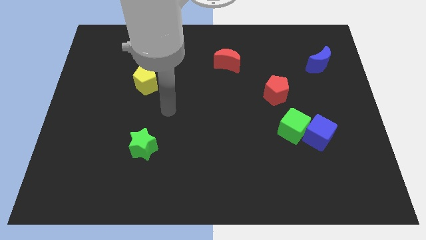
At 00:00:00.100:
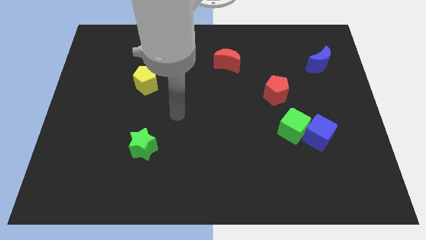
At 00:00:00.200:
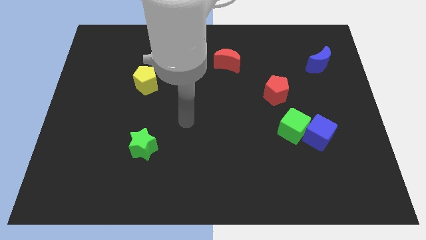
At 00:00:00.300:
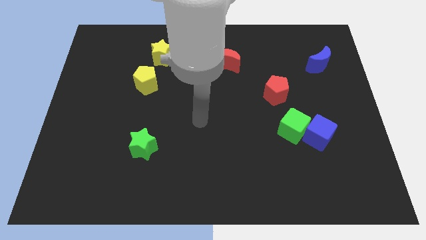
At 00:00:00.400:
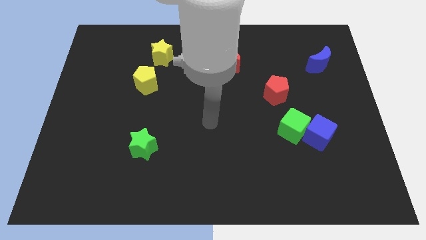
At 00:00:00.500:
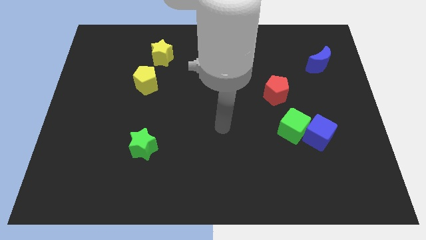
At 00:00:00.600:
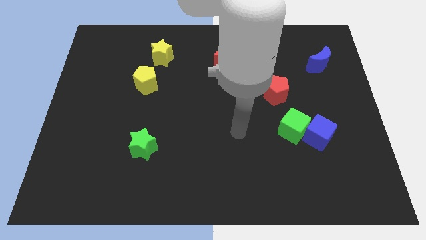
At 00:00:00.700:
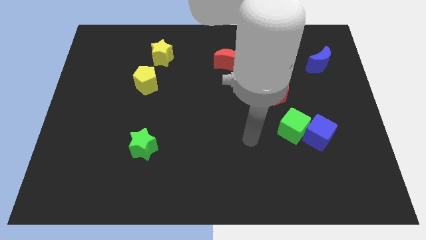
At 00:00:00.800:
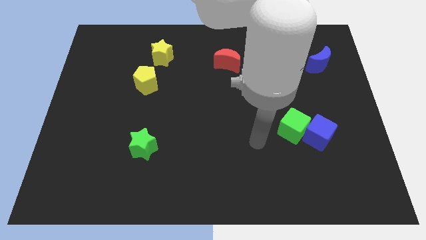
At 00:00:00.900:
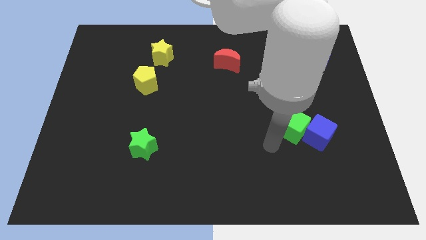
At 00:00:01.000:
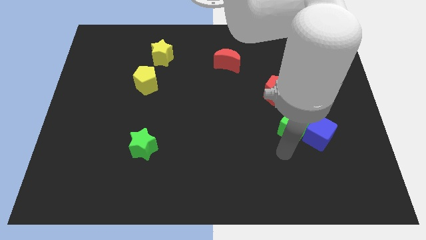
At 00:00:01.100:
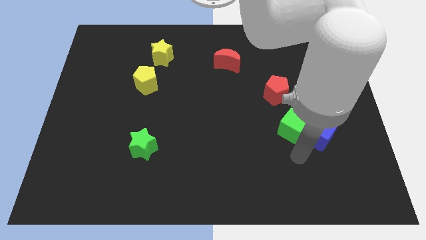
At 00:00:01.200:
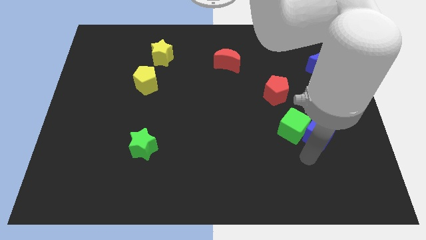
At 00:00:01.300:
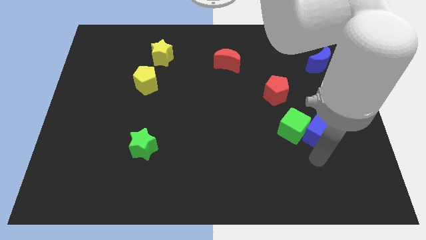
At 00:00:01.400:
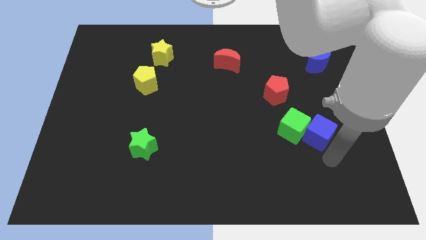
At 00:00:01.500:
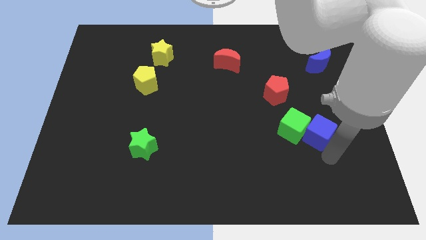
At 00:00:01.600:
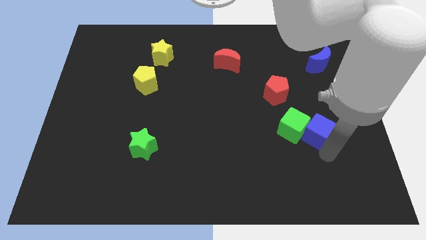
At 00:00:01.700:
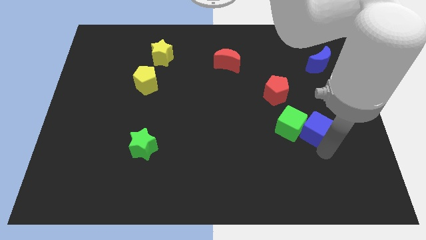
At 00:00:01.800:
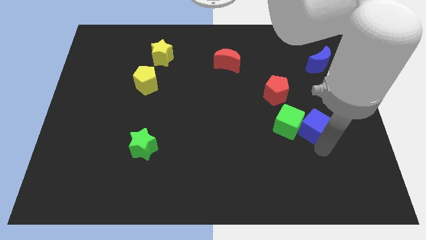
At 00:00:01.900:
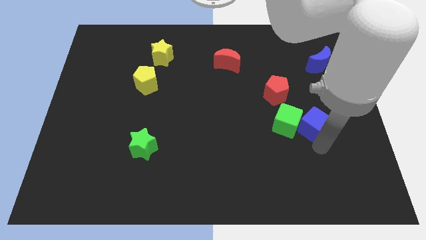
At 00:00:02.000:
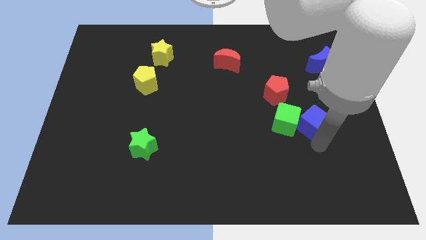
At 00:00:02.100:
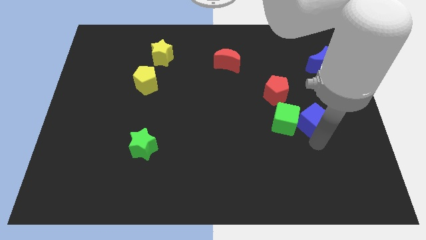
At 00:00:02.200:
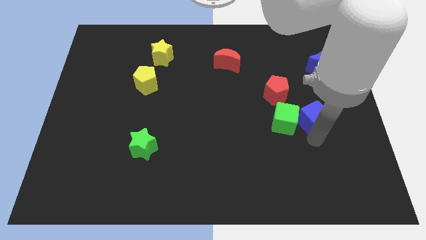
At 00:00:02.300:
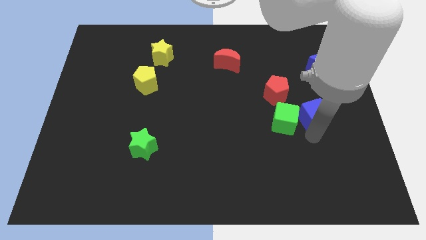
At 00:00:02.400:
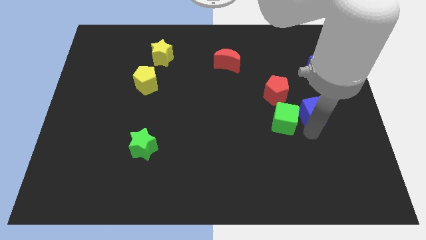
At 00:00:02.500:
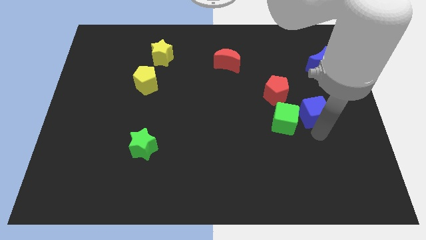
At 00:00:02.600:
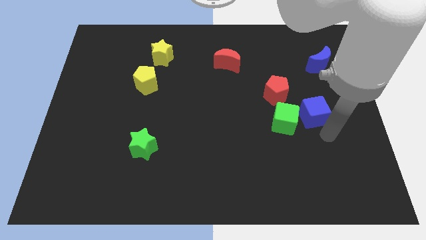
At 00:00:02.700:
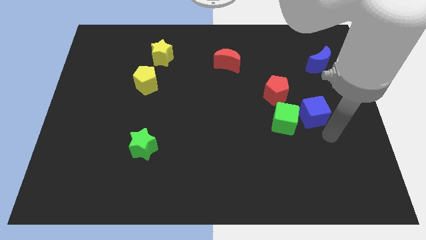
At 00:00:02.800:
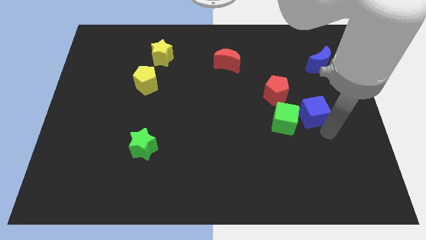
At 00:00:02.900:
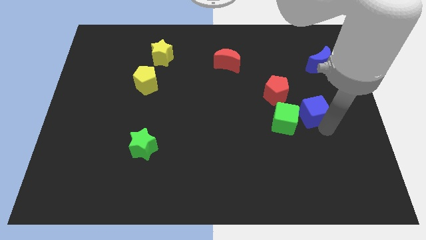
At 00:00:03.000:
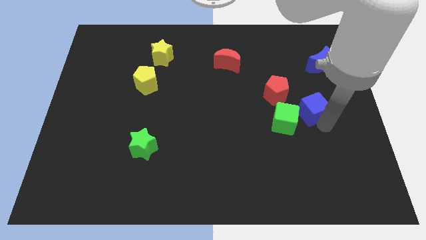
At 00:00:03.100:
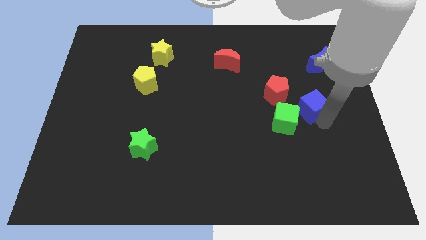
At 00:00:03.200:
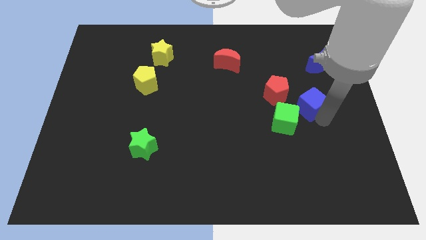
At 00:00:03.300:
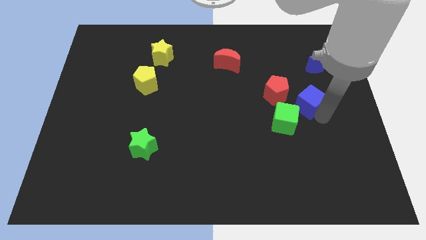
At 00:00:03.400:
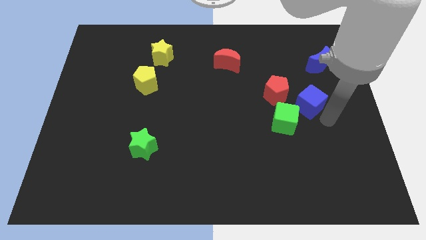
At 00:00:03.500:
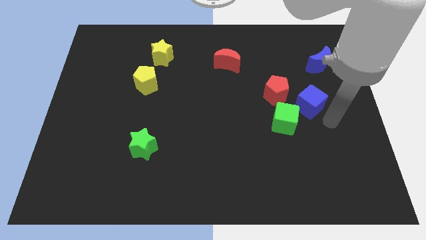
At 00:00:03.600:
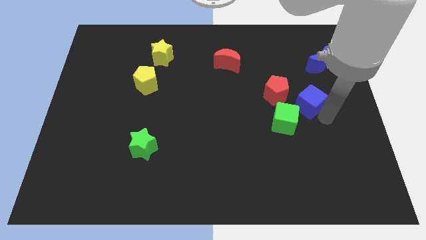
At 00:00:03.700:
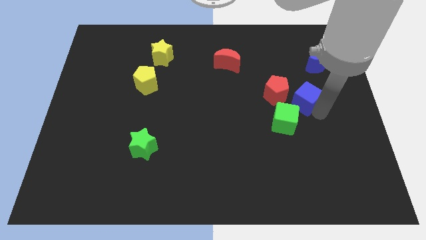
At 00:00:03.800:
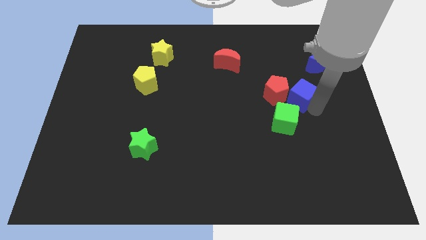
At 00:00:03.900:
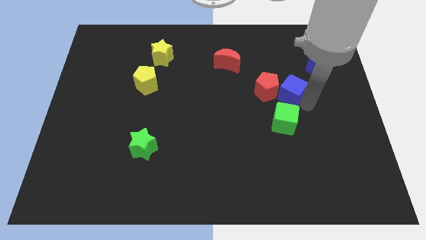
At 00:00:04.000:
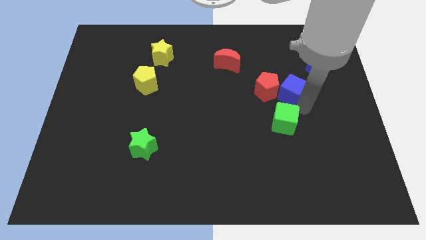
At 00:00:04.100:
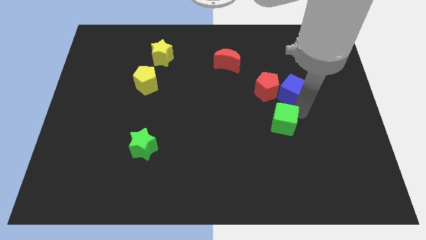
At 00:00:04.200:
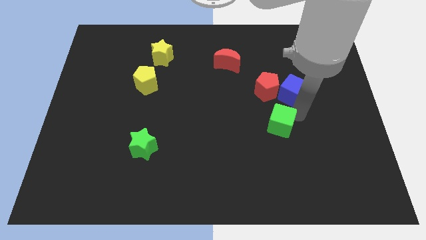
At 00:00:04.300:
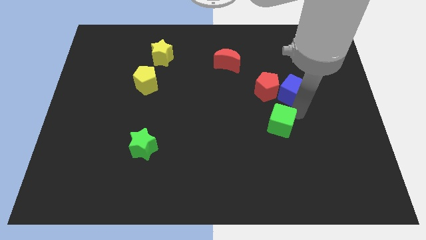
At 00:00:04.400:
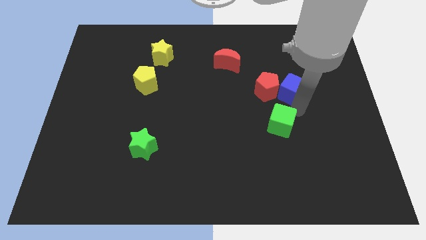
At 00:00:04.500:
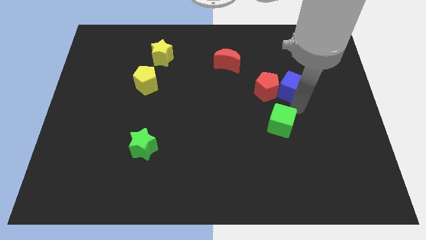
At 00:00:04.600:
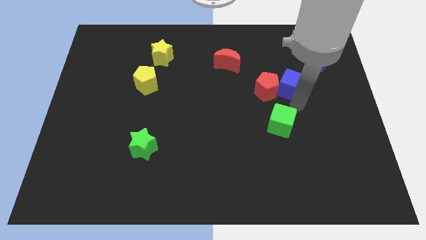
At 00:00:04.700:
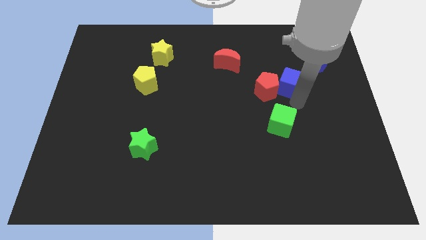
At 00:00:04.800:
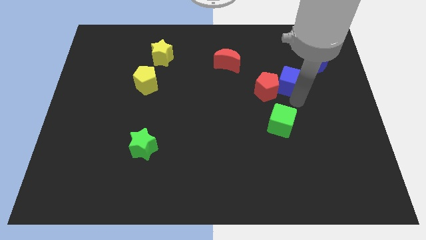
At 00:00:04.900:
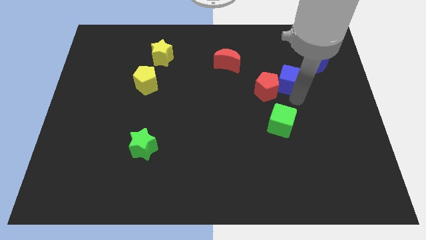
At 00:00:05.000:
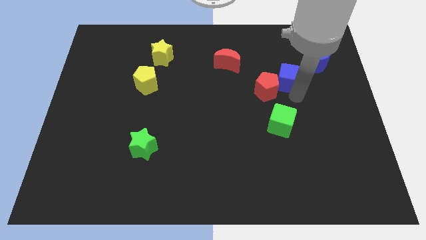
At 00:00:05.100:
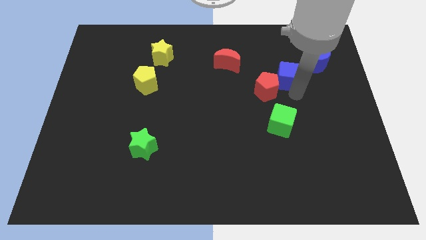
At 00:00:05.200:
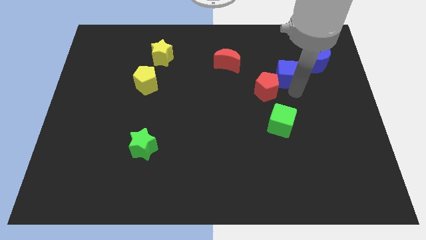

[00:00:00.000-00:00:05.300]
push the blue cube to the left of the blue moon

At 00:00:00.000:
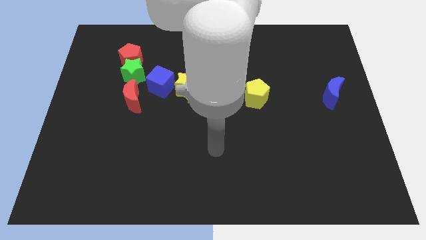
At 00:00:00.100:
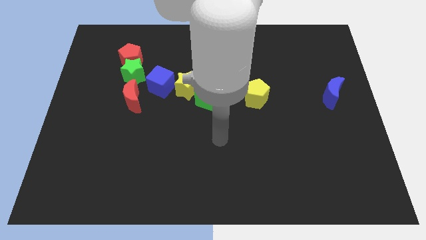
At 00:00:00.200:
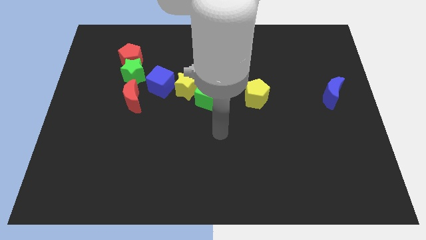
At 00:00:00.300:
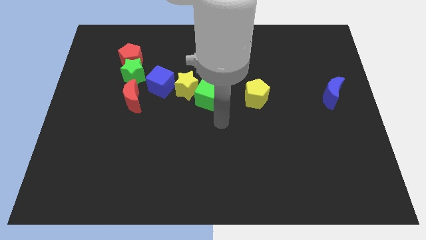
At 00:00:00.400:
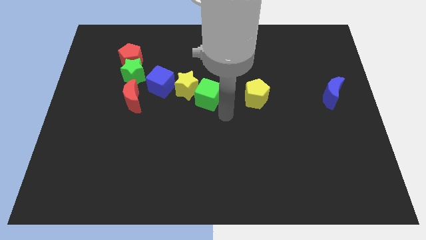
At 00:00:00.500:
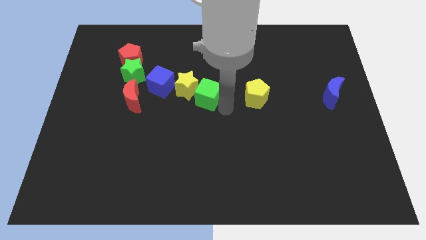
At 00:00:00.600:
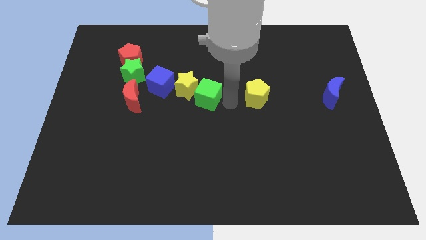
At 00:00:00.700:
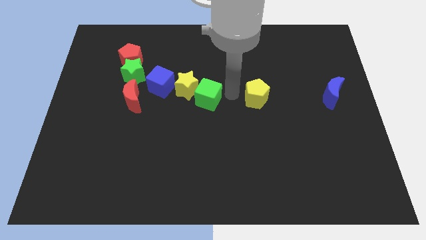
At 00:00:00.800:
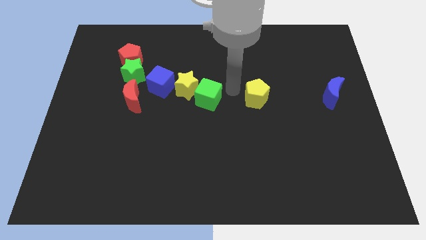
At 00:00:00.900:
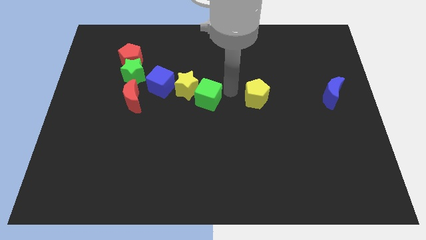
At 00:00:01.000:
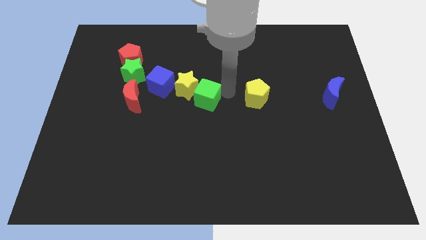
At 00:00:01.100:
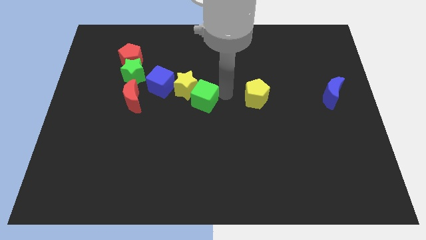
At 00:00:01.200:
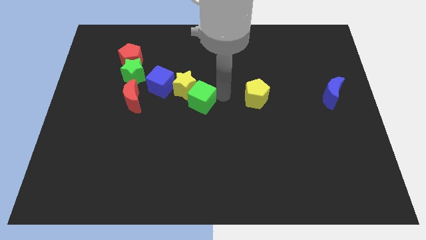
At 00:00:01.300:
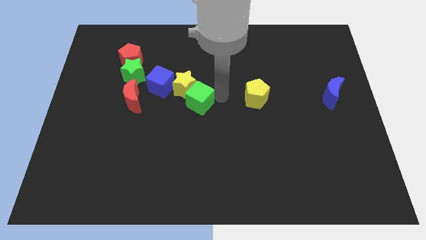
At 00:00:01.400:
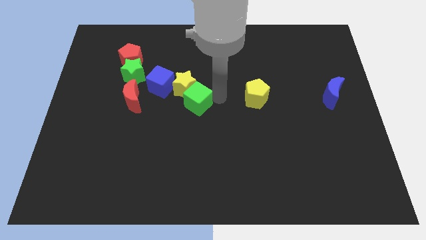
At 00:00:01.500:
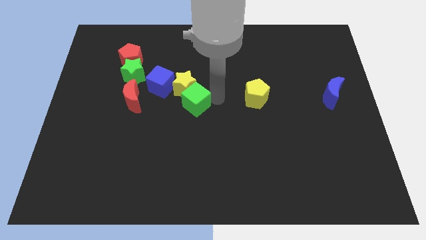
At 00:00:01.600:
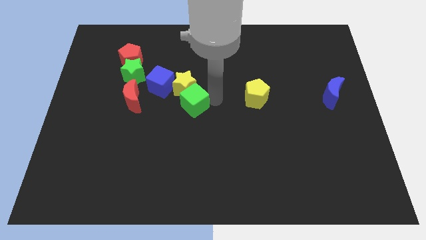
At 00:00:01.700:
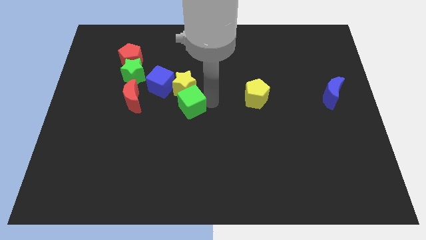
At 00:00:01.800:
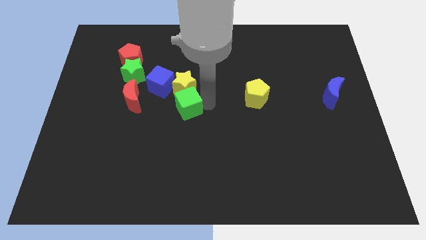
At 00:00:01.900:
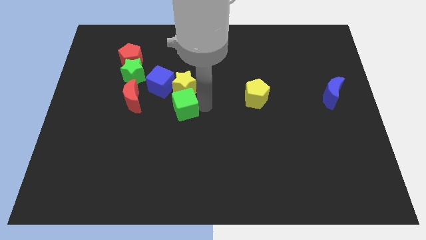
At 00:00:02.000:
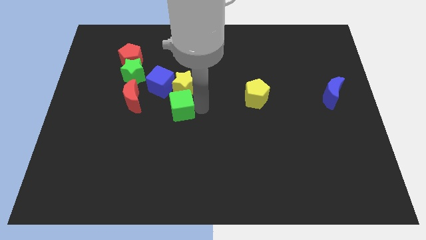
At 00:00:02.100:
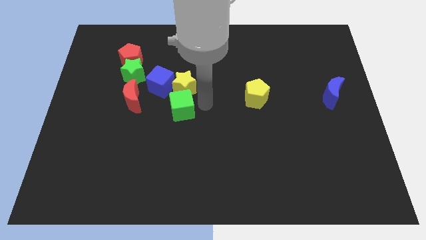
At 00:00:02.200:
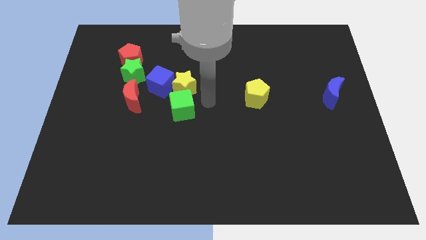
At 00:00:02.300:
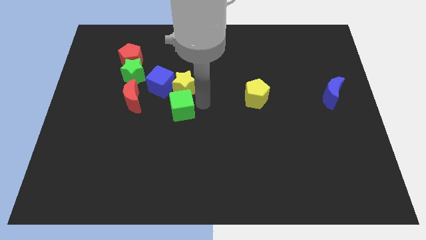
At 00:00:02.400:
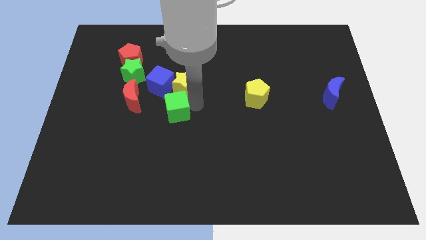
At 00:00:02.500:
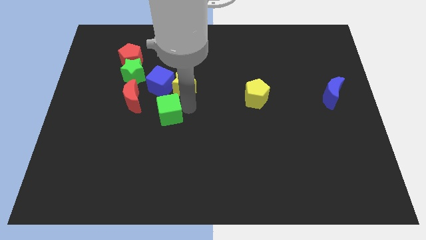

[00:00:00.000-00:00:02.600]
put the green cube to the bottom right of the red moon
